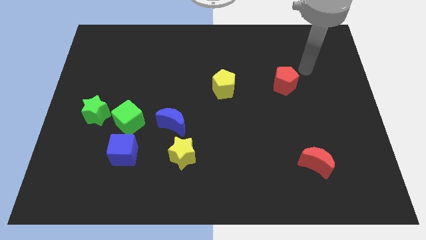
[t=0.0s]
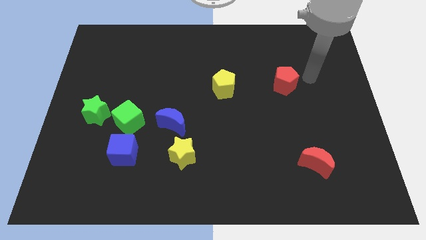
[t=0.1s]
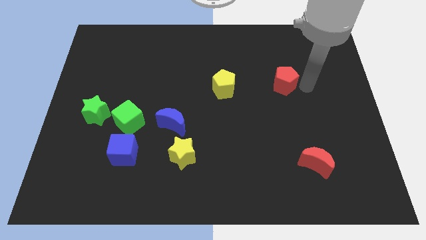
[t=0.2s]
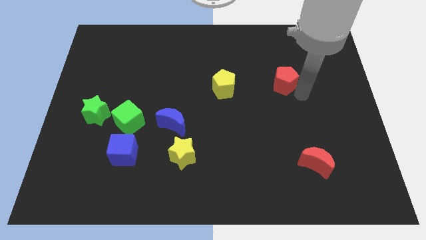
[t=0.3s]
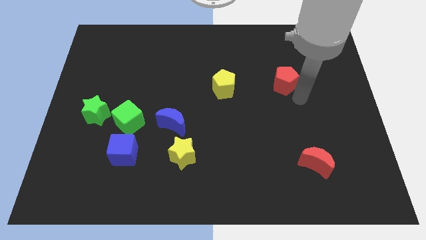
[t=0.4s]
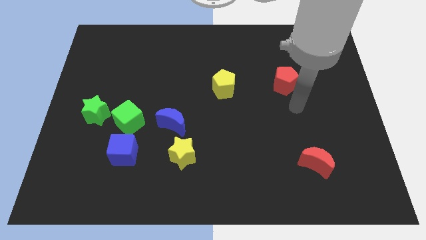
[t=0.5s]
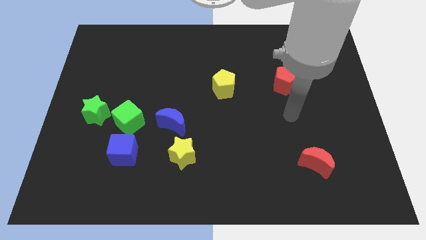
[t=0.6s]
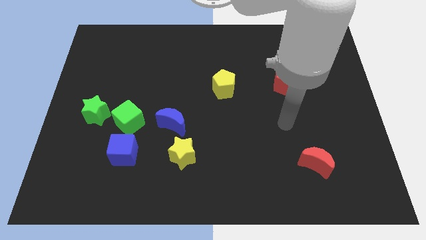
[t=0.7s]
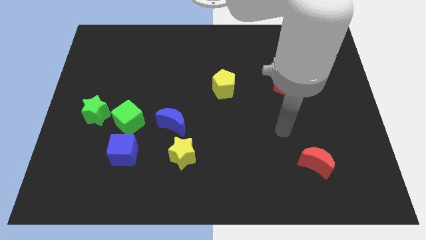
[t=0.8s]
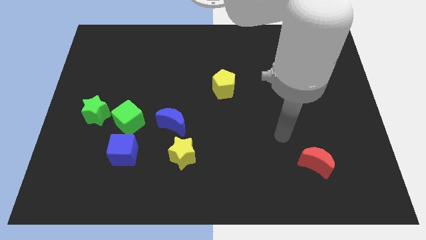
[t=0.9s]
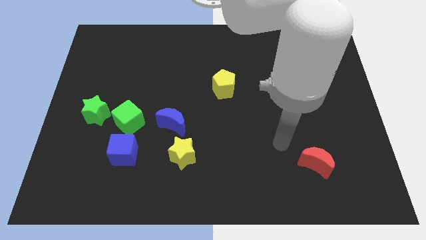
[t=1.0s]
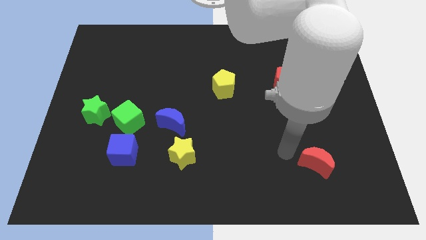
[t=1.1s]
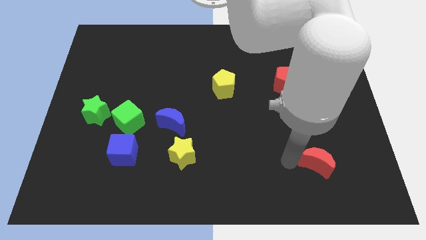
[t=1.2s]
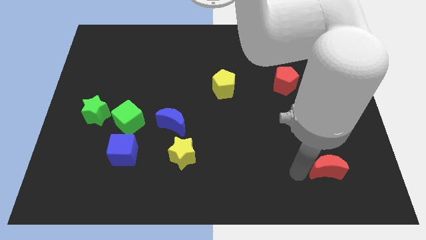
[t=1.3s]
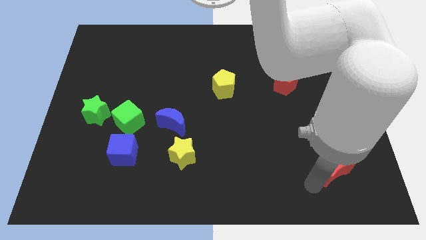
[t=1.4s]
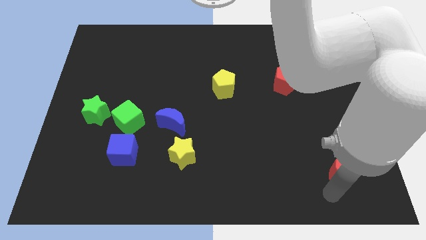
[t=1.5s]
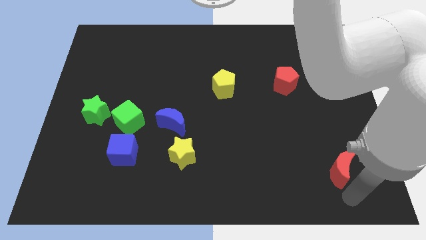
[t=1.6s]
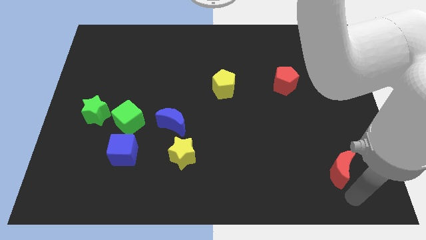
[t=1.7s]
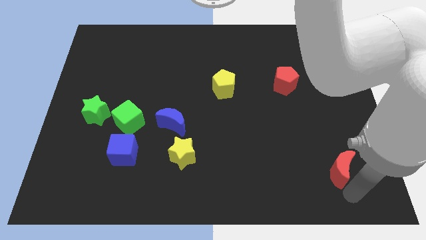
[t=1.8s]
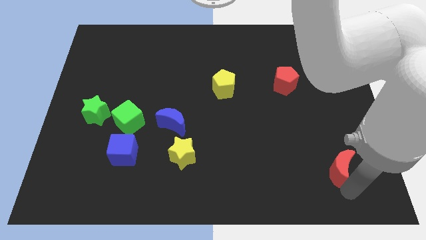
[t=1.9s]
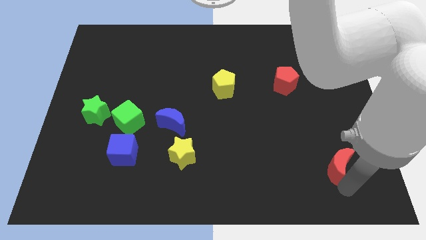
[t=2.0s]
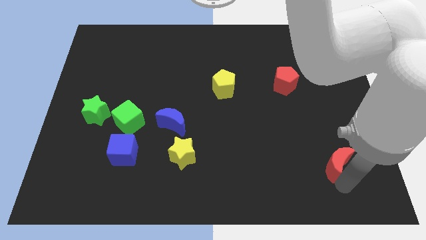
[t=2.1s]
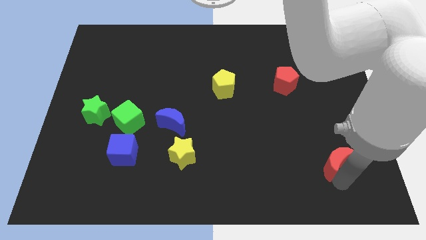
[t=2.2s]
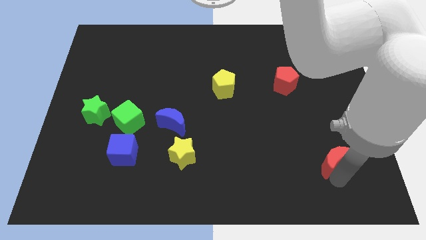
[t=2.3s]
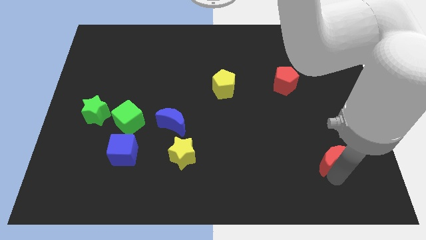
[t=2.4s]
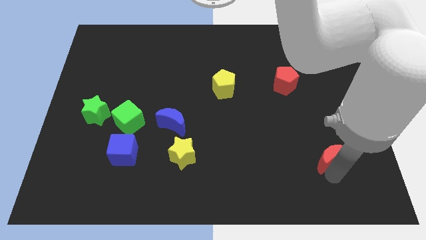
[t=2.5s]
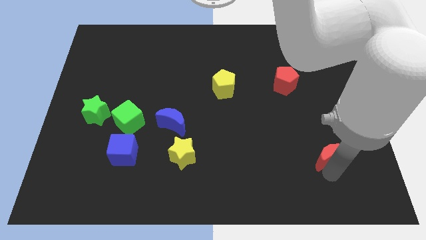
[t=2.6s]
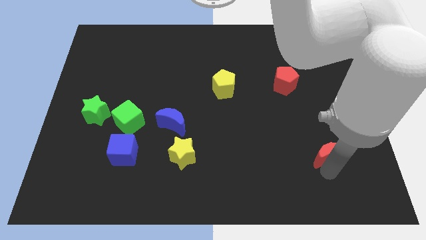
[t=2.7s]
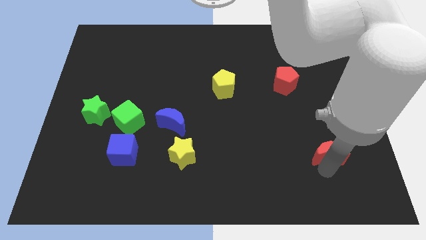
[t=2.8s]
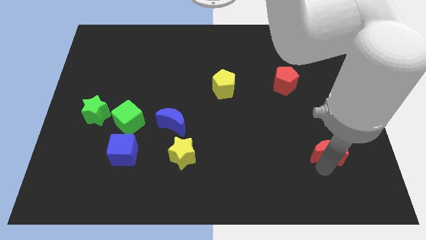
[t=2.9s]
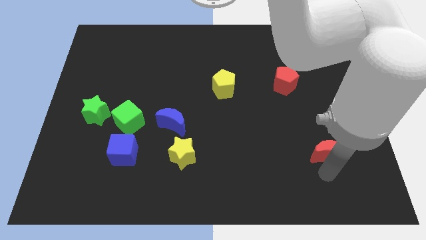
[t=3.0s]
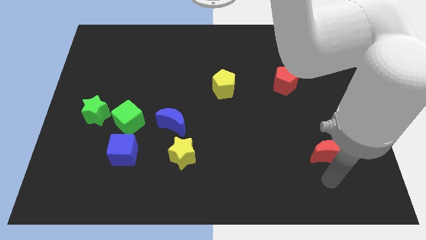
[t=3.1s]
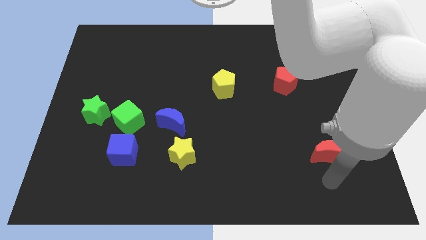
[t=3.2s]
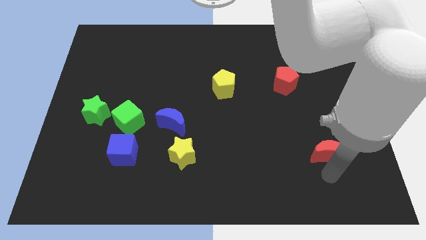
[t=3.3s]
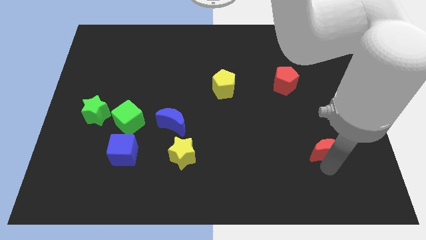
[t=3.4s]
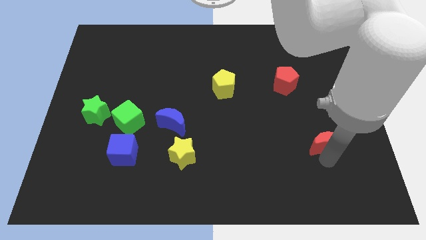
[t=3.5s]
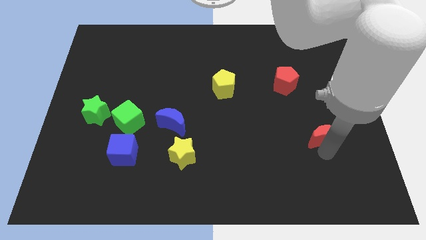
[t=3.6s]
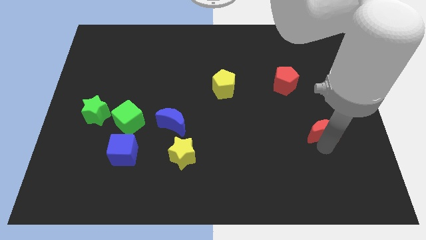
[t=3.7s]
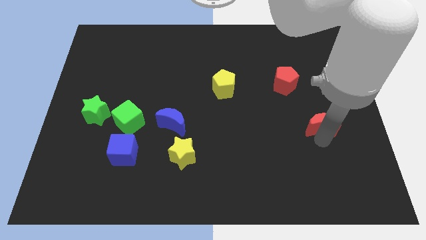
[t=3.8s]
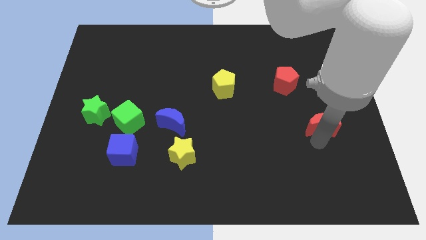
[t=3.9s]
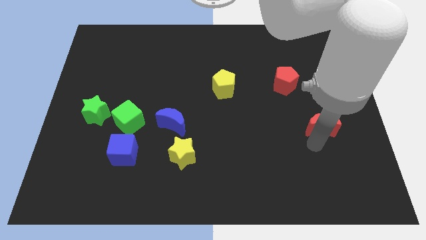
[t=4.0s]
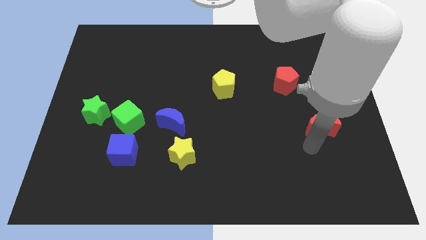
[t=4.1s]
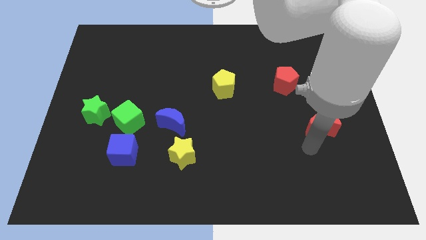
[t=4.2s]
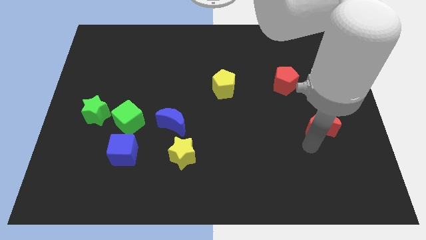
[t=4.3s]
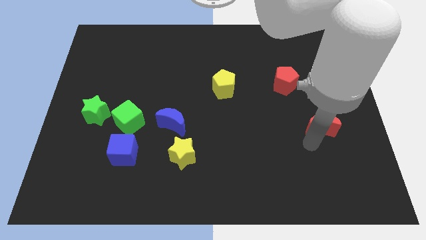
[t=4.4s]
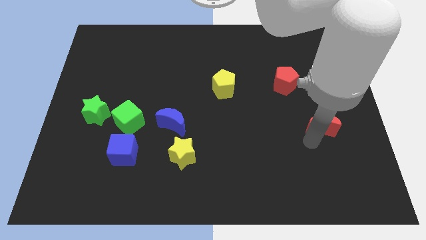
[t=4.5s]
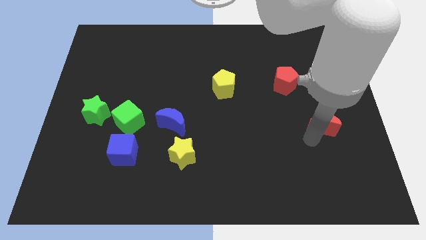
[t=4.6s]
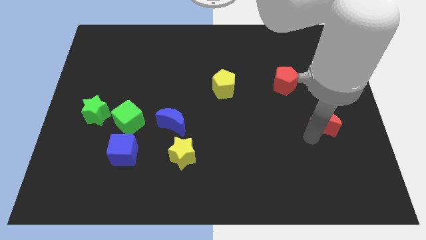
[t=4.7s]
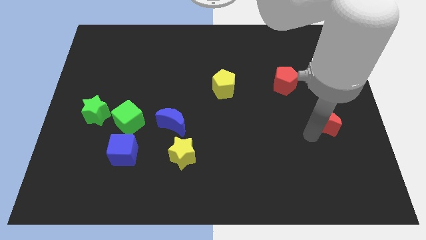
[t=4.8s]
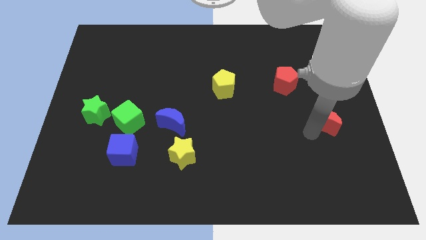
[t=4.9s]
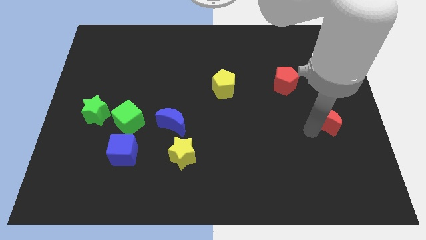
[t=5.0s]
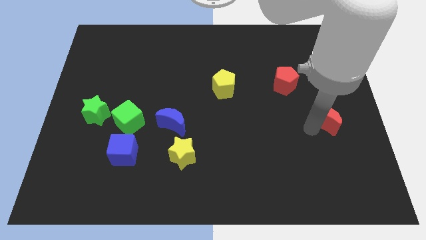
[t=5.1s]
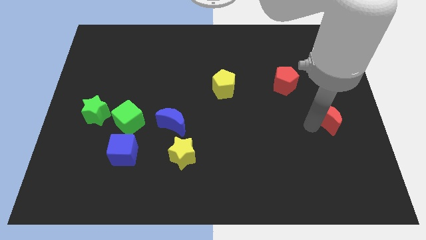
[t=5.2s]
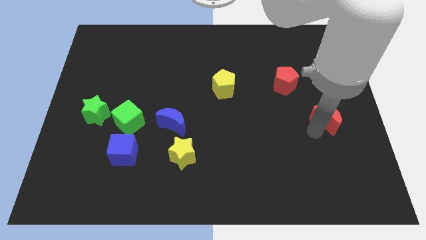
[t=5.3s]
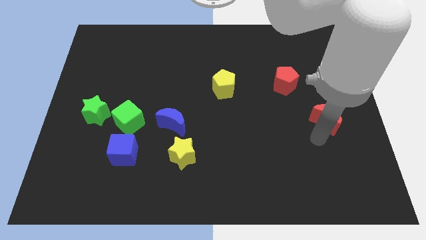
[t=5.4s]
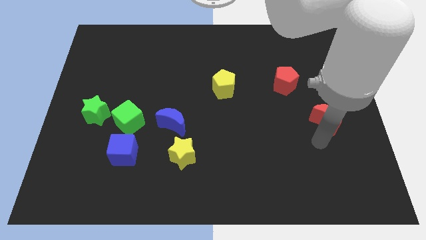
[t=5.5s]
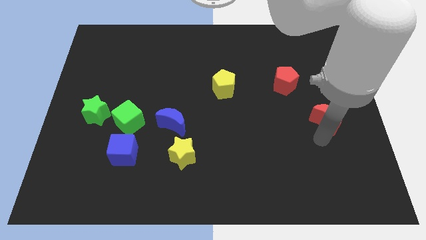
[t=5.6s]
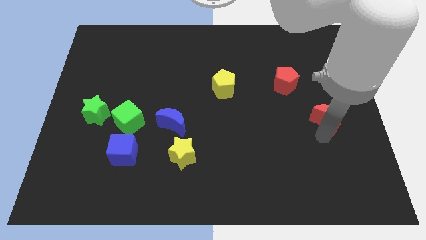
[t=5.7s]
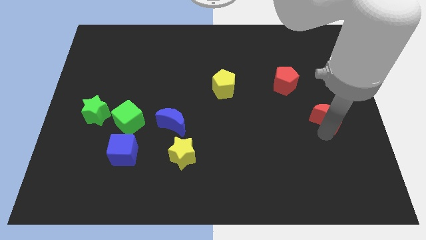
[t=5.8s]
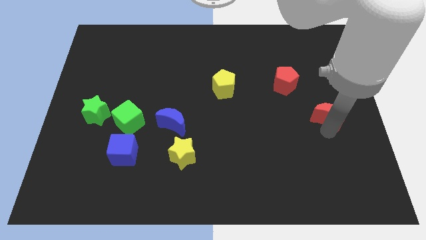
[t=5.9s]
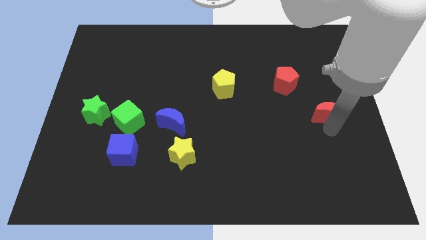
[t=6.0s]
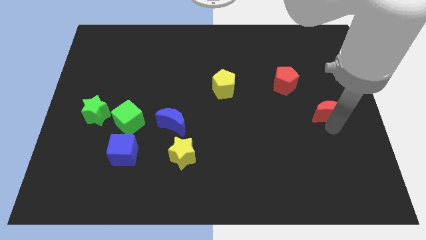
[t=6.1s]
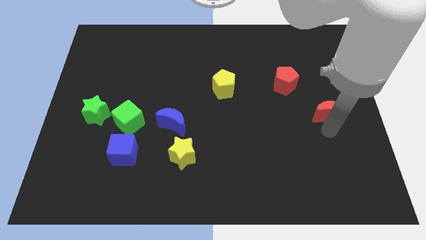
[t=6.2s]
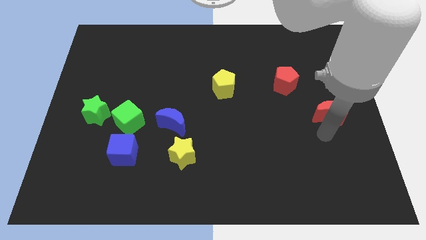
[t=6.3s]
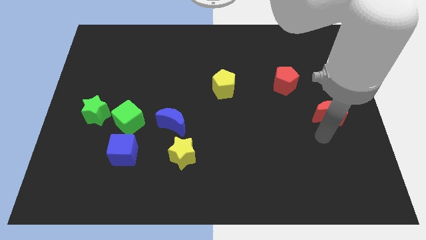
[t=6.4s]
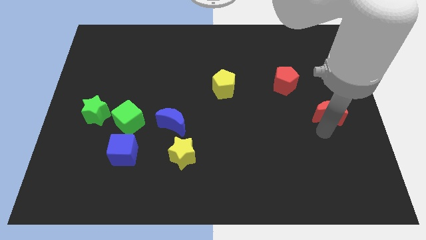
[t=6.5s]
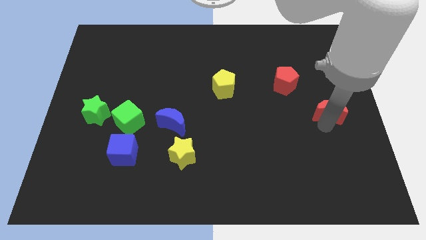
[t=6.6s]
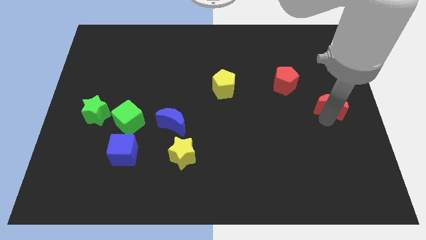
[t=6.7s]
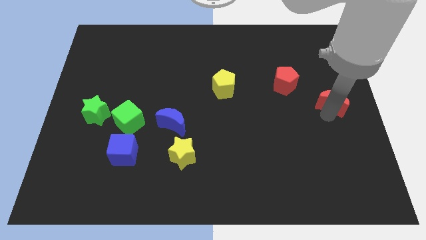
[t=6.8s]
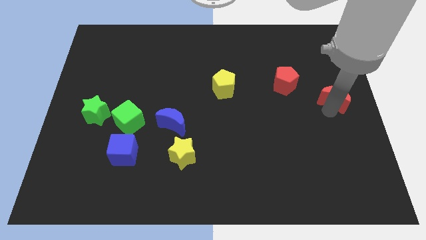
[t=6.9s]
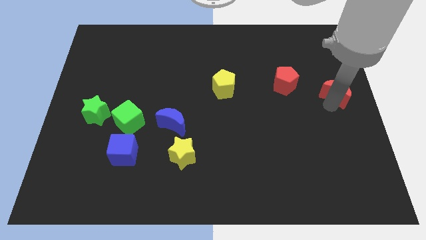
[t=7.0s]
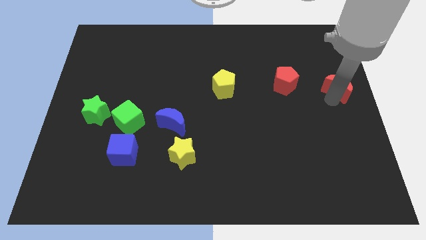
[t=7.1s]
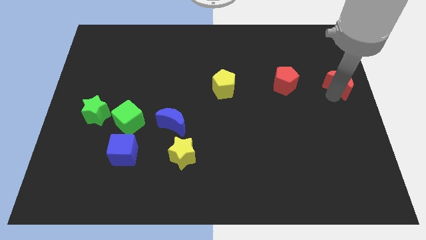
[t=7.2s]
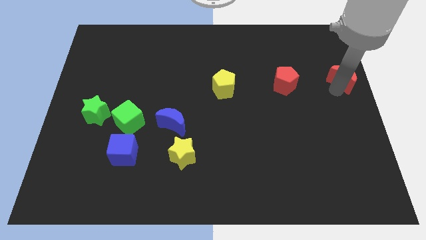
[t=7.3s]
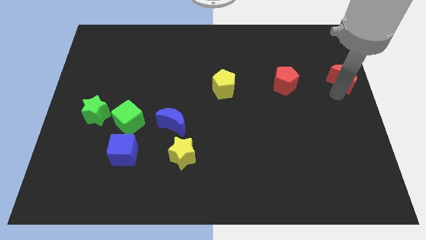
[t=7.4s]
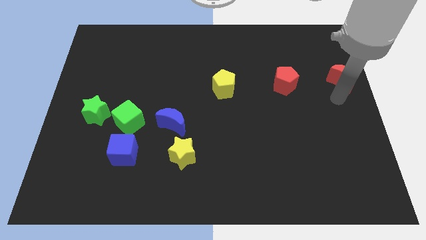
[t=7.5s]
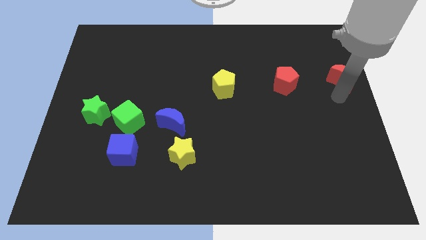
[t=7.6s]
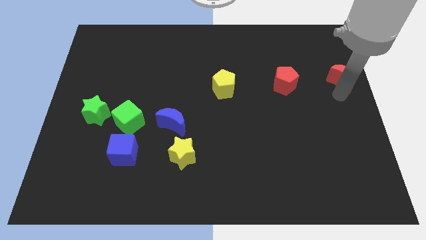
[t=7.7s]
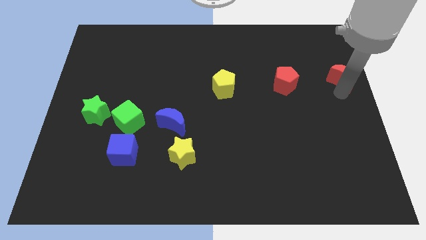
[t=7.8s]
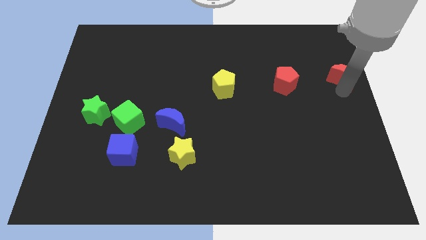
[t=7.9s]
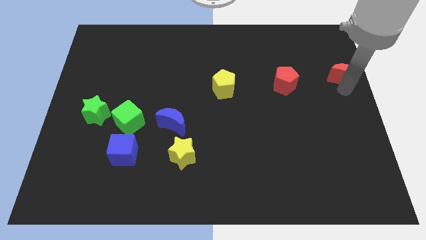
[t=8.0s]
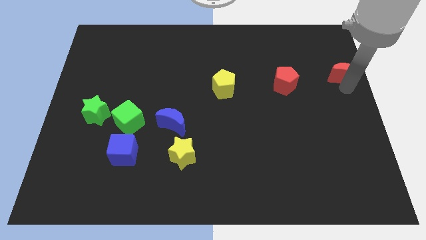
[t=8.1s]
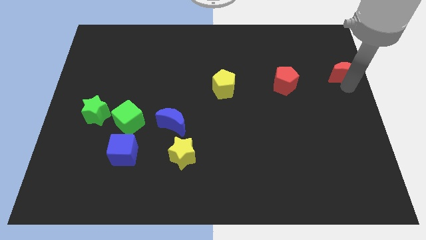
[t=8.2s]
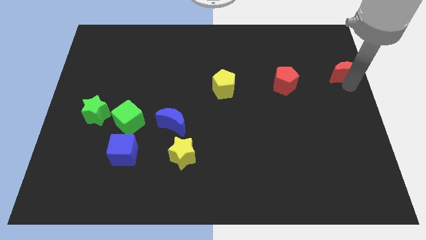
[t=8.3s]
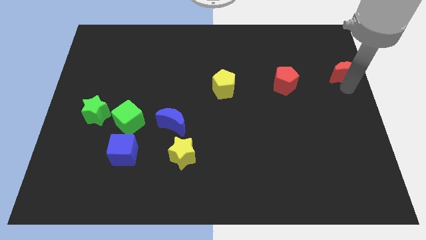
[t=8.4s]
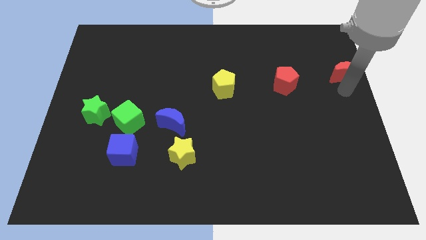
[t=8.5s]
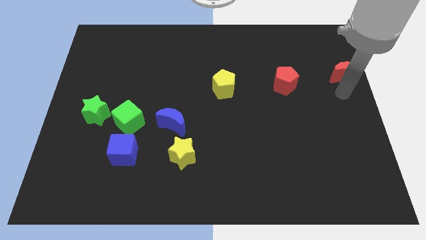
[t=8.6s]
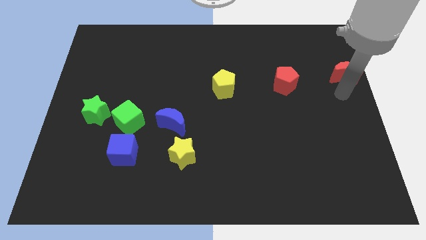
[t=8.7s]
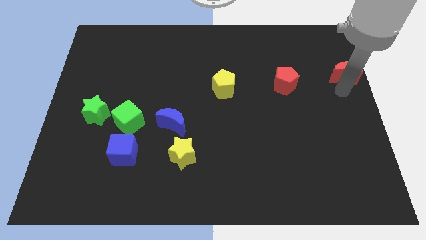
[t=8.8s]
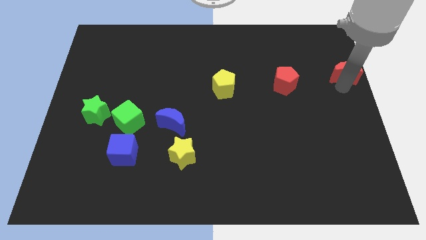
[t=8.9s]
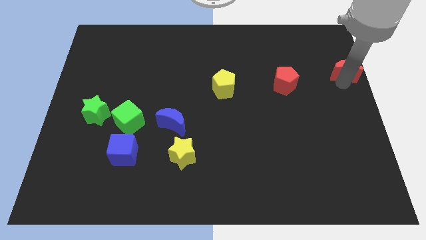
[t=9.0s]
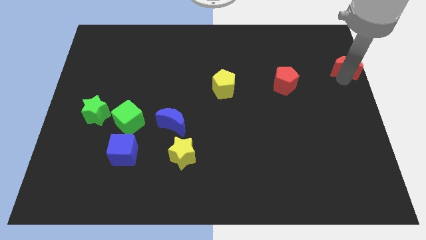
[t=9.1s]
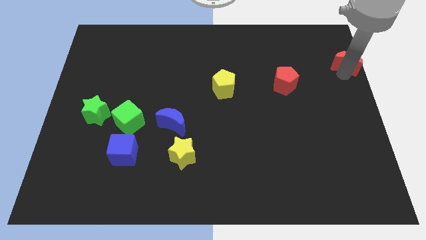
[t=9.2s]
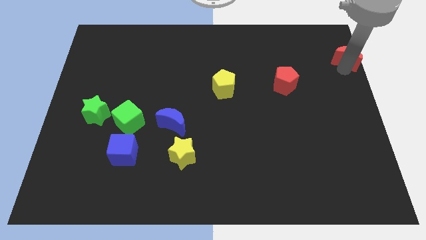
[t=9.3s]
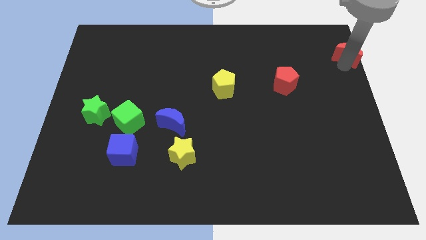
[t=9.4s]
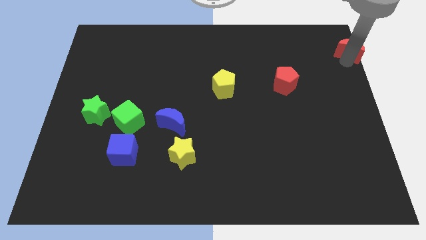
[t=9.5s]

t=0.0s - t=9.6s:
push the red moon to the top right corner
